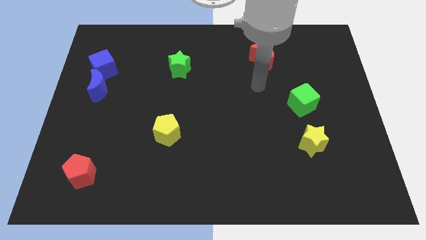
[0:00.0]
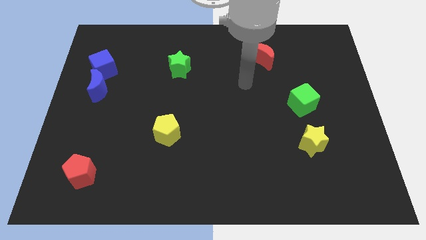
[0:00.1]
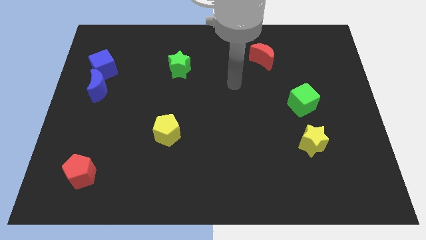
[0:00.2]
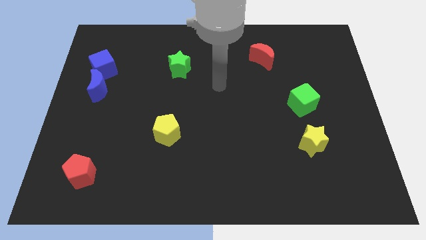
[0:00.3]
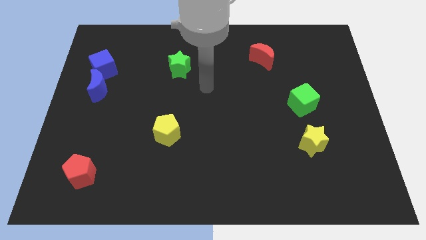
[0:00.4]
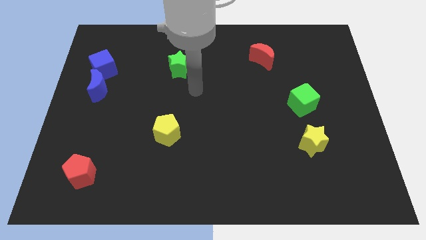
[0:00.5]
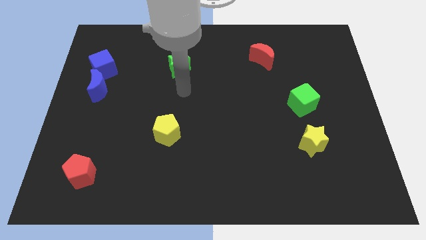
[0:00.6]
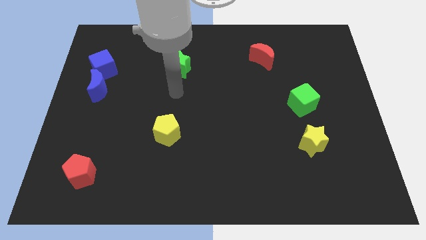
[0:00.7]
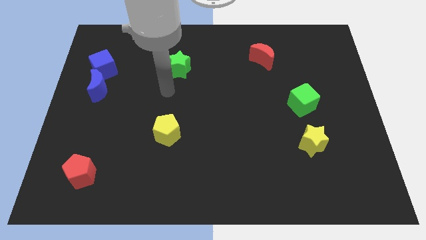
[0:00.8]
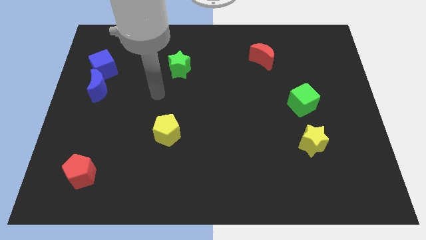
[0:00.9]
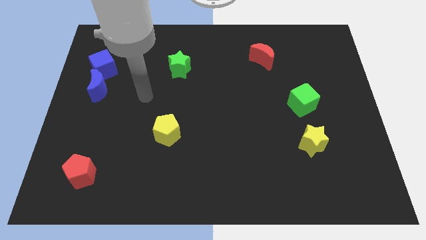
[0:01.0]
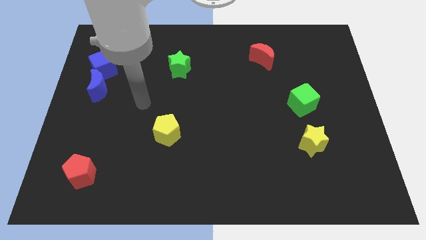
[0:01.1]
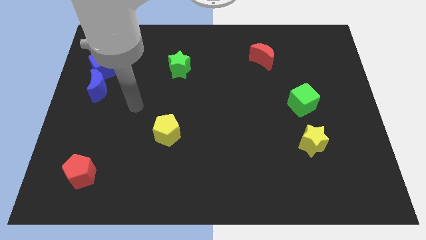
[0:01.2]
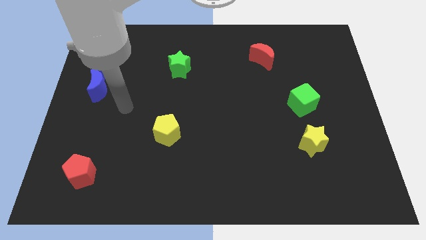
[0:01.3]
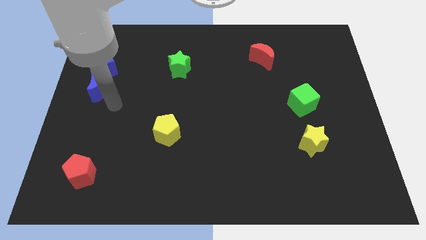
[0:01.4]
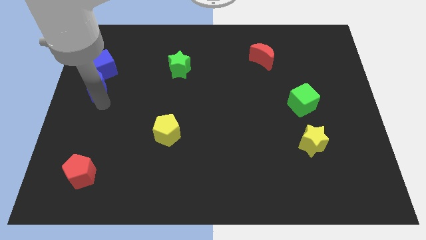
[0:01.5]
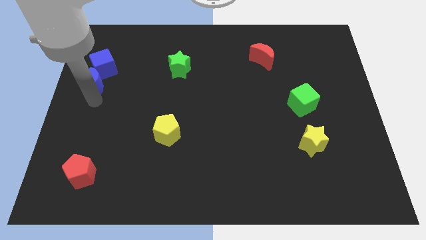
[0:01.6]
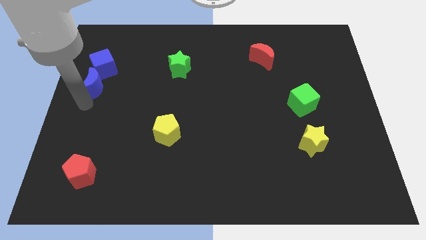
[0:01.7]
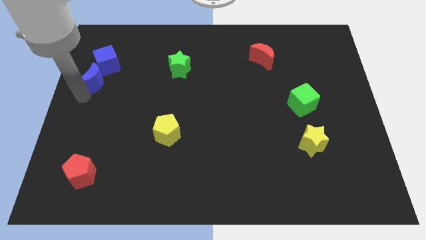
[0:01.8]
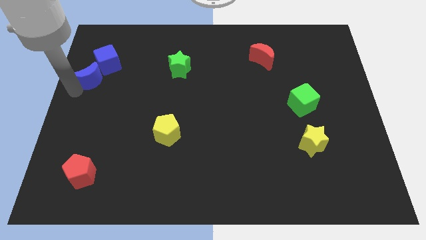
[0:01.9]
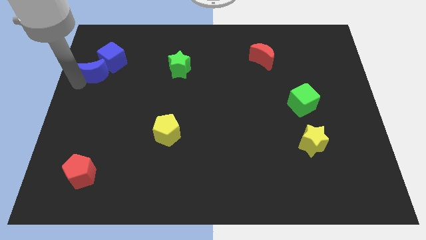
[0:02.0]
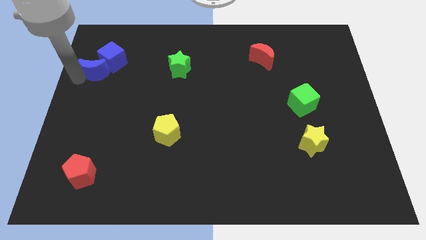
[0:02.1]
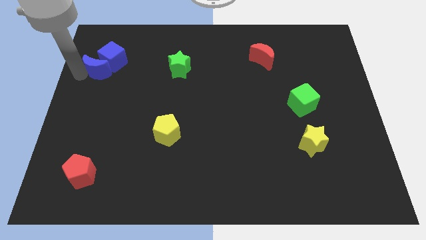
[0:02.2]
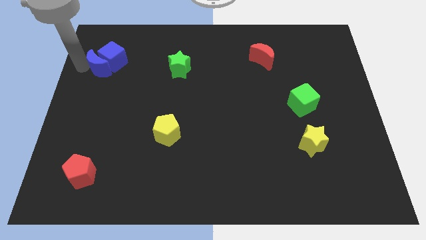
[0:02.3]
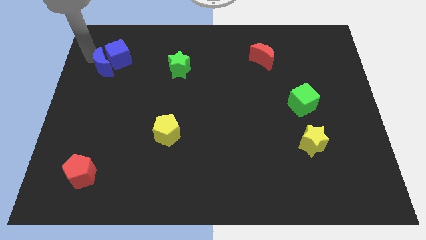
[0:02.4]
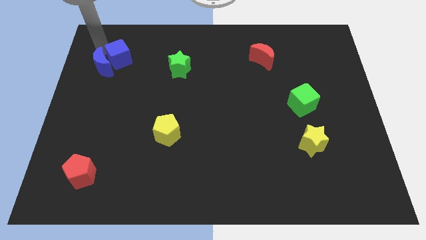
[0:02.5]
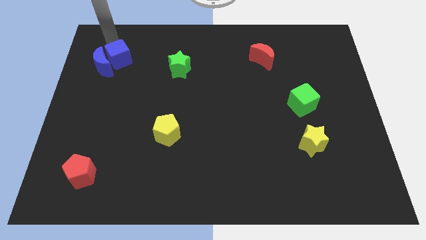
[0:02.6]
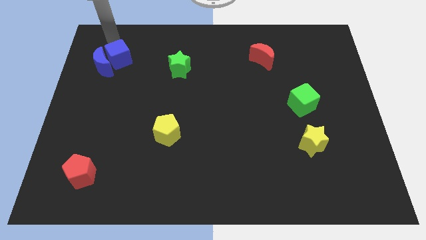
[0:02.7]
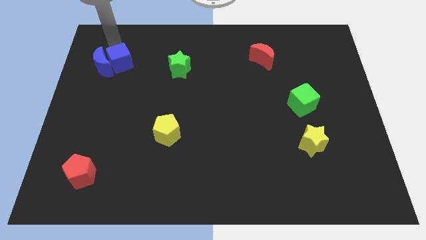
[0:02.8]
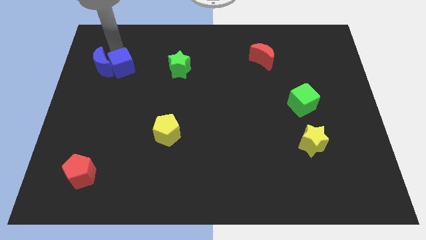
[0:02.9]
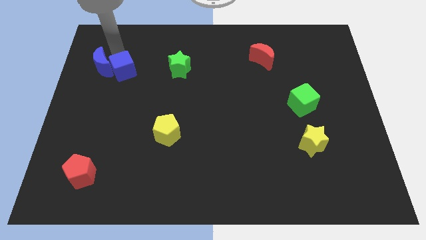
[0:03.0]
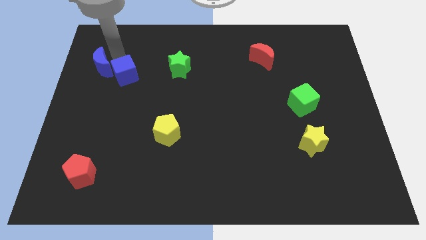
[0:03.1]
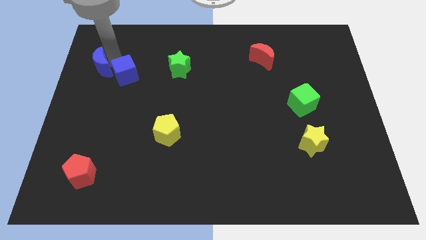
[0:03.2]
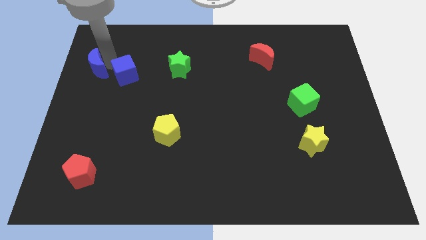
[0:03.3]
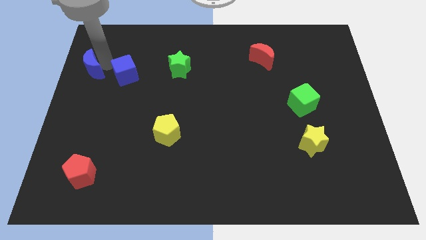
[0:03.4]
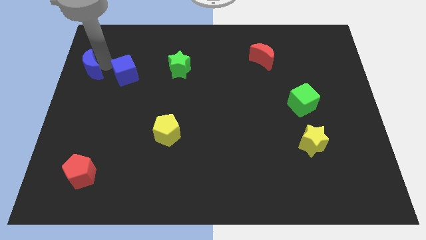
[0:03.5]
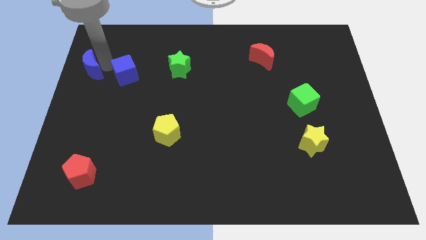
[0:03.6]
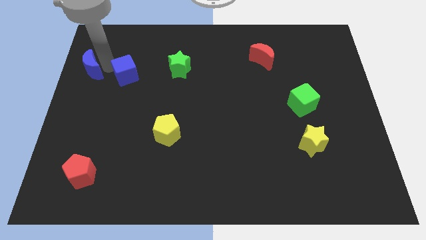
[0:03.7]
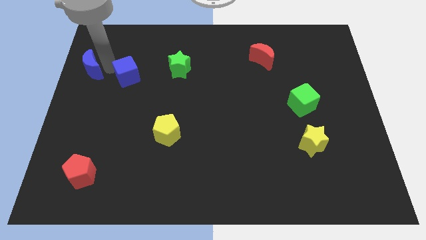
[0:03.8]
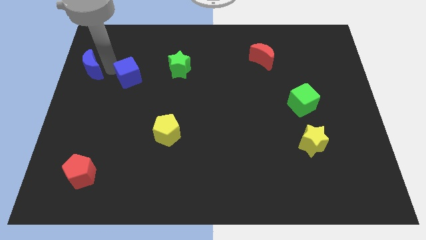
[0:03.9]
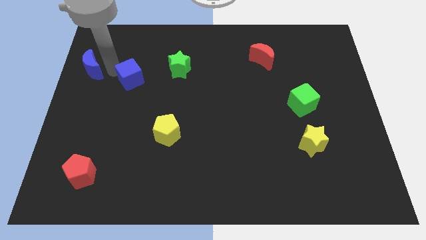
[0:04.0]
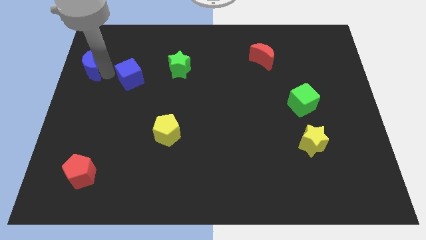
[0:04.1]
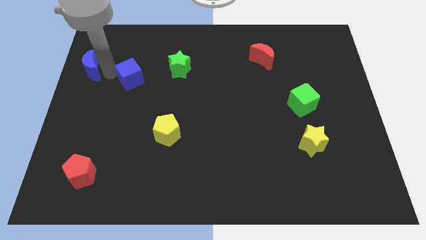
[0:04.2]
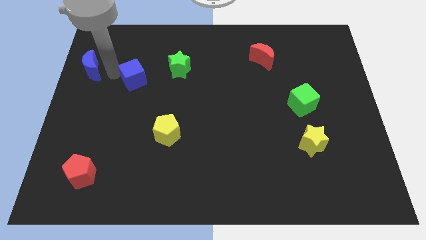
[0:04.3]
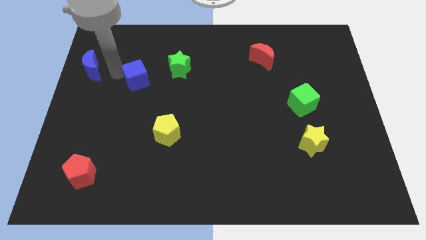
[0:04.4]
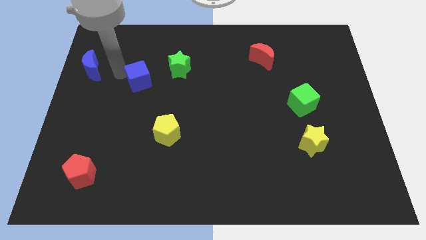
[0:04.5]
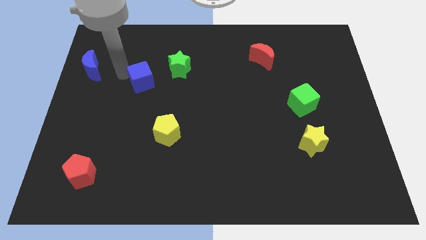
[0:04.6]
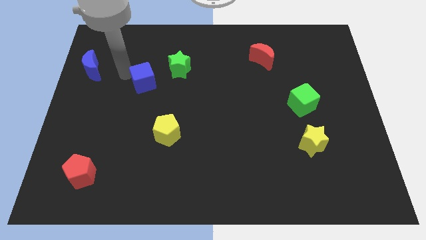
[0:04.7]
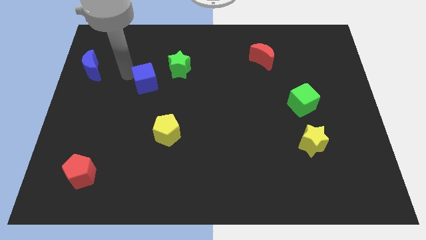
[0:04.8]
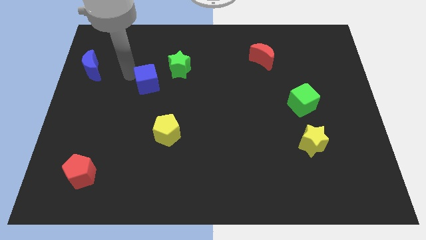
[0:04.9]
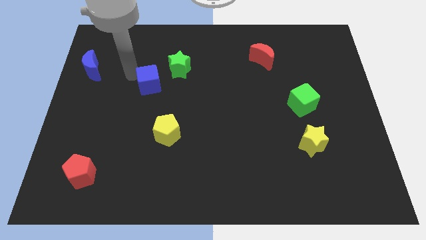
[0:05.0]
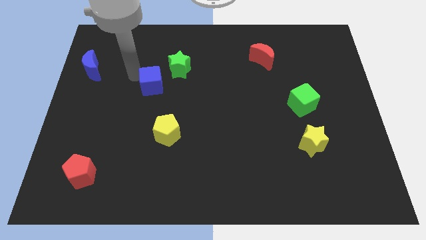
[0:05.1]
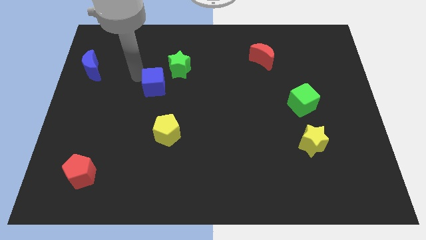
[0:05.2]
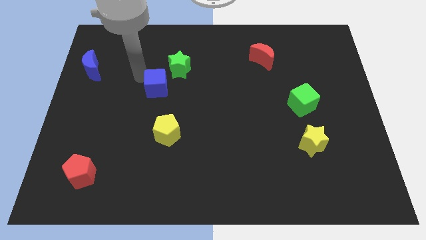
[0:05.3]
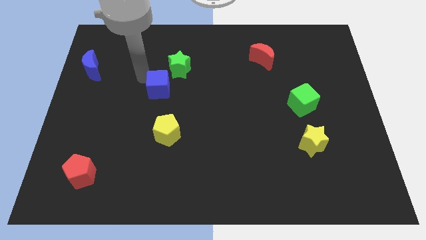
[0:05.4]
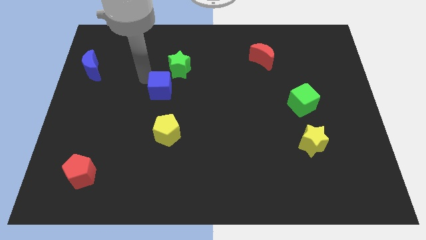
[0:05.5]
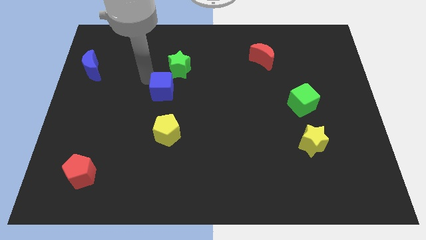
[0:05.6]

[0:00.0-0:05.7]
slide the blue cube to the middle
